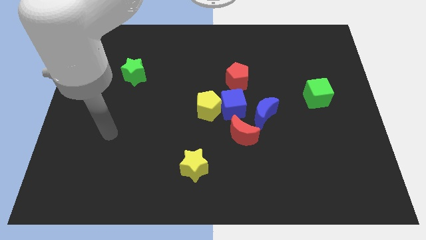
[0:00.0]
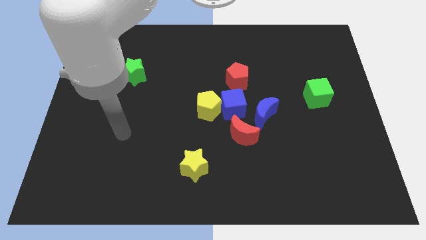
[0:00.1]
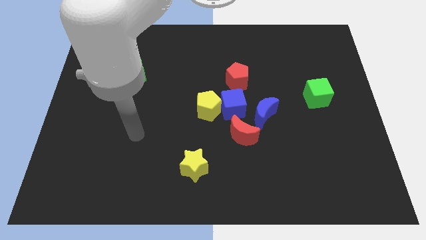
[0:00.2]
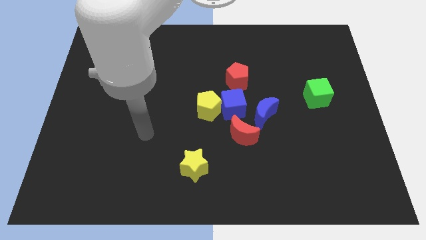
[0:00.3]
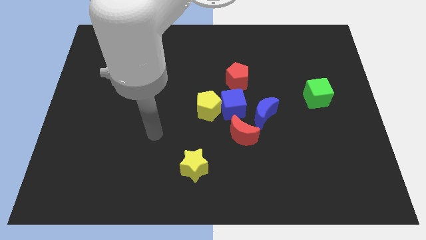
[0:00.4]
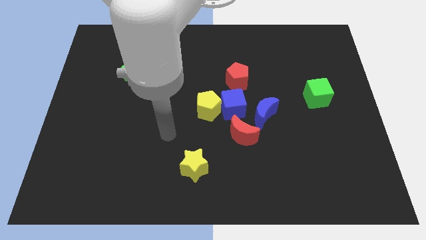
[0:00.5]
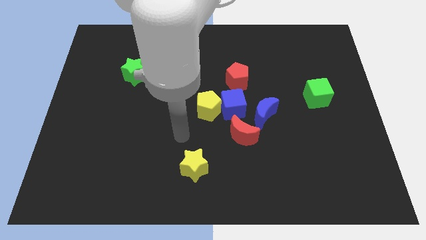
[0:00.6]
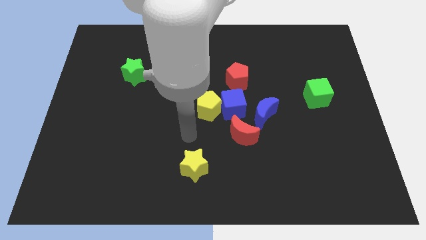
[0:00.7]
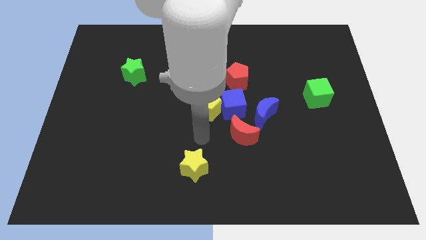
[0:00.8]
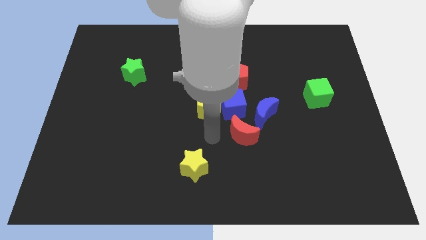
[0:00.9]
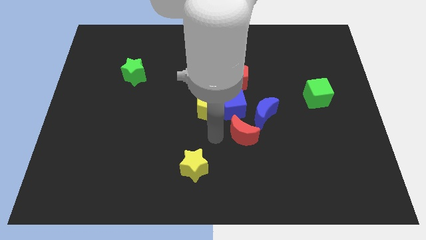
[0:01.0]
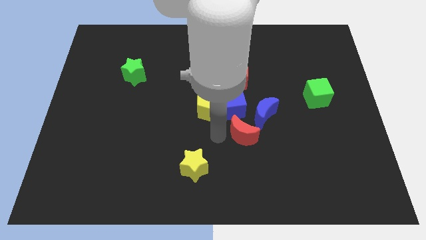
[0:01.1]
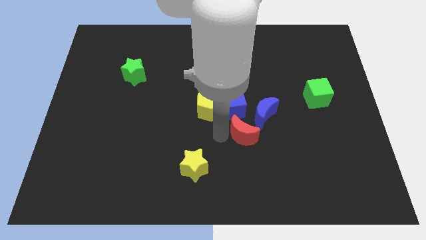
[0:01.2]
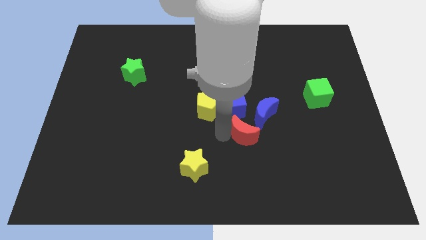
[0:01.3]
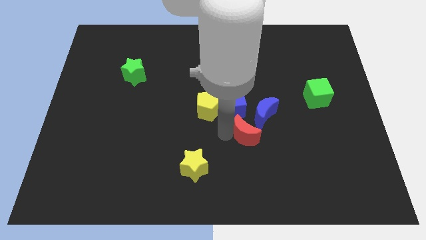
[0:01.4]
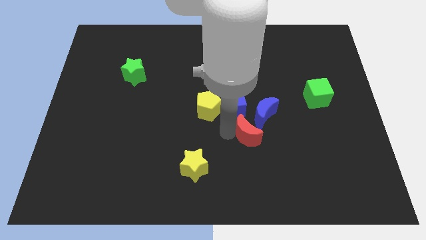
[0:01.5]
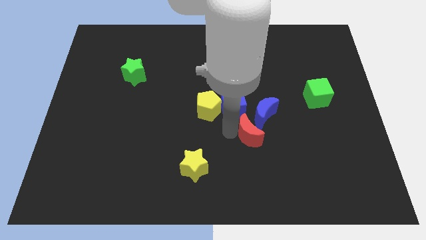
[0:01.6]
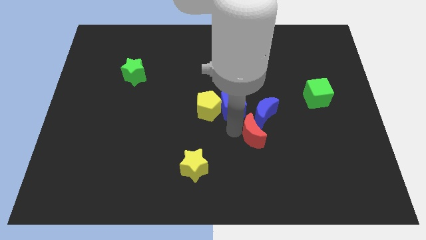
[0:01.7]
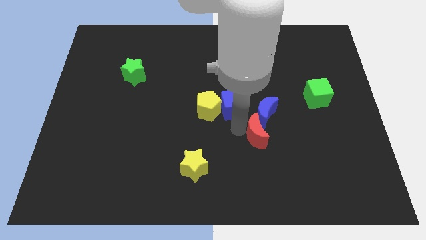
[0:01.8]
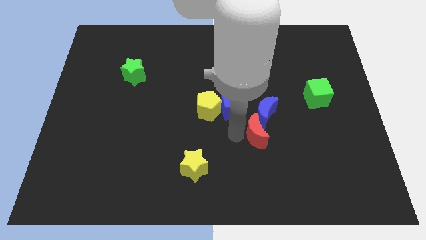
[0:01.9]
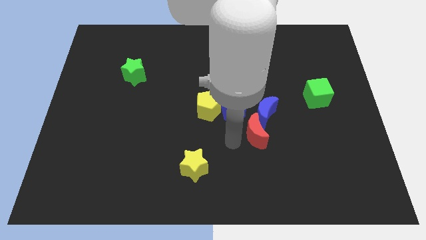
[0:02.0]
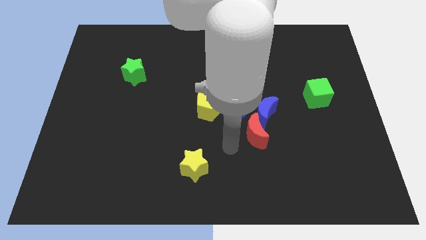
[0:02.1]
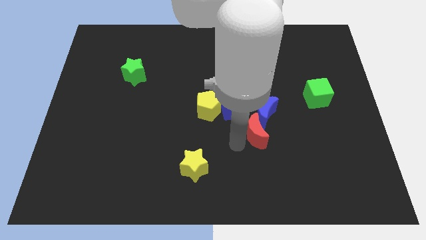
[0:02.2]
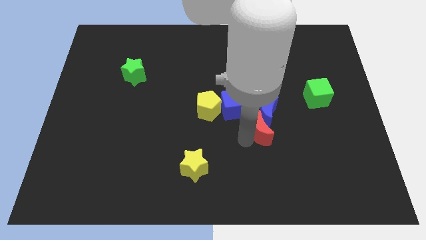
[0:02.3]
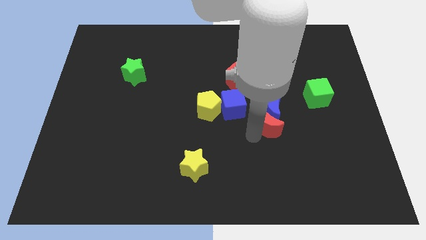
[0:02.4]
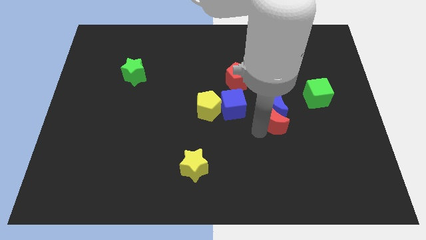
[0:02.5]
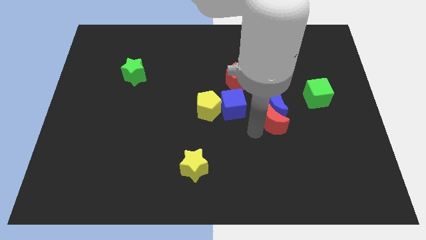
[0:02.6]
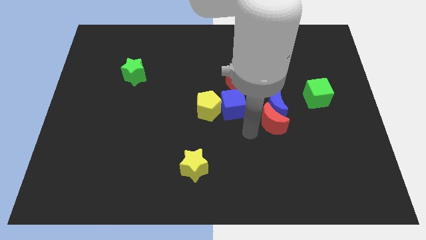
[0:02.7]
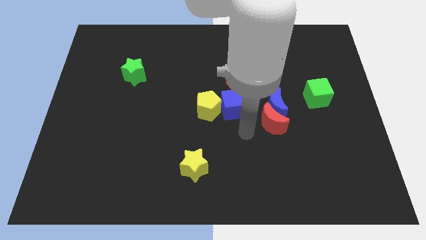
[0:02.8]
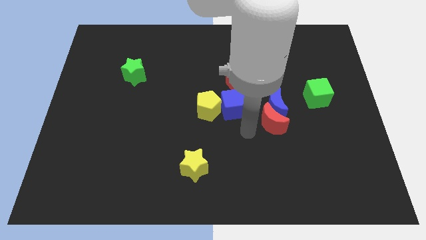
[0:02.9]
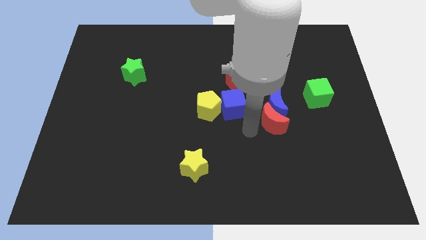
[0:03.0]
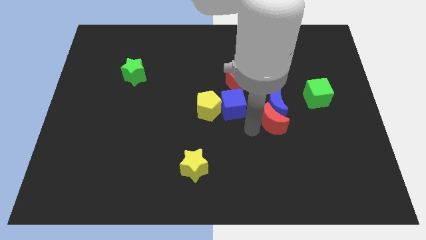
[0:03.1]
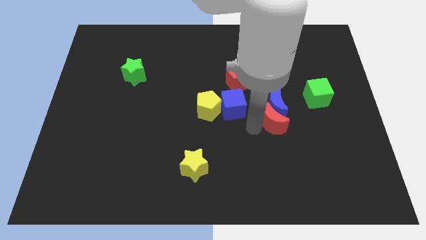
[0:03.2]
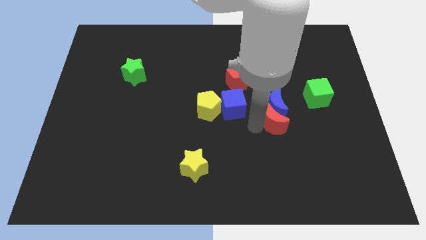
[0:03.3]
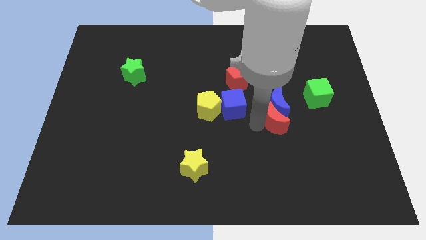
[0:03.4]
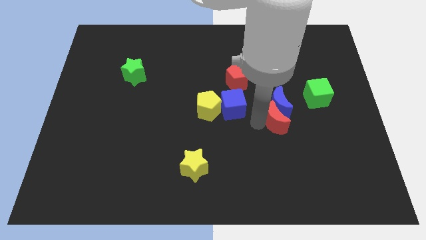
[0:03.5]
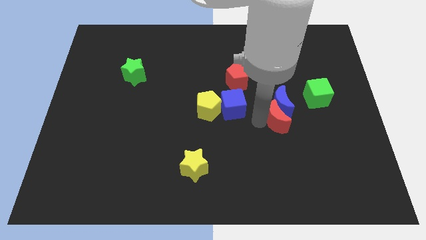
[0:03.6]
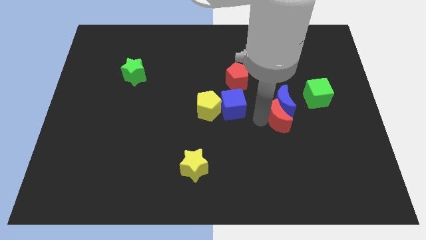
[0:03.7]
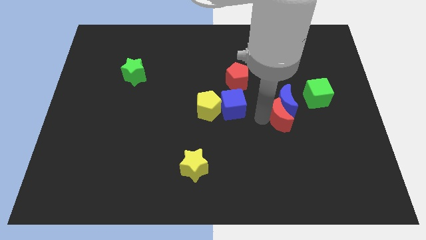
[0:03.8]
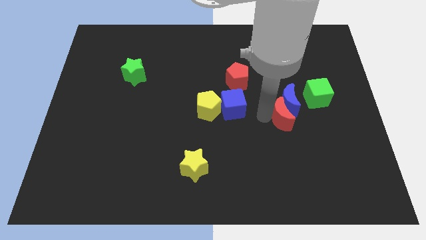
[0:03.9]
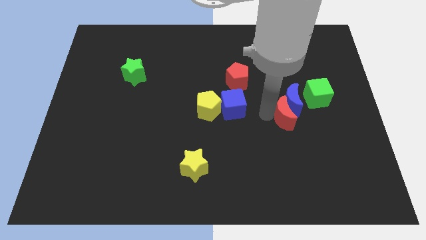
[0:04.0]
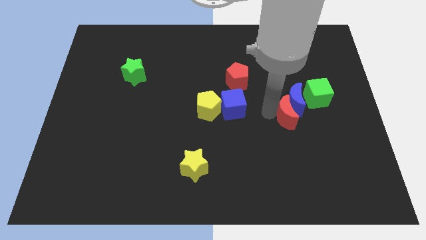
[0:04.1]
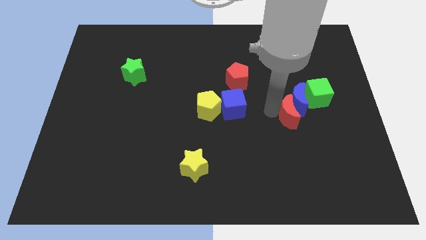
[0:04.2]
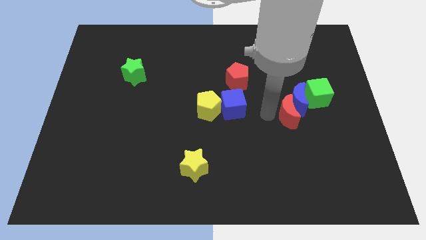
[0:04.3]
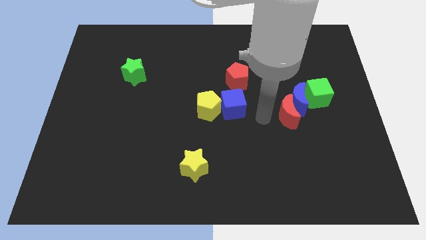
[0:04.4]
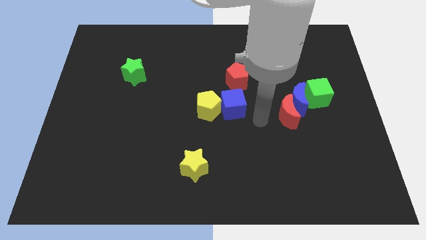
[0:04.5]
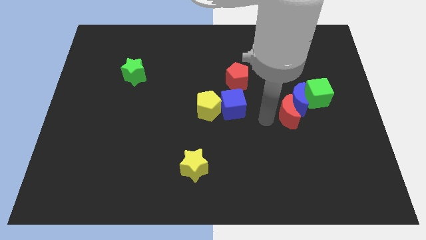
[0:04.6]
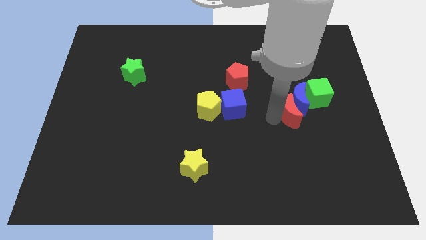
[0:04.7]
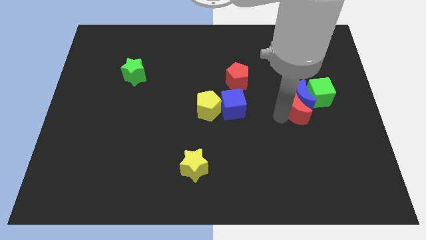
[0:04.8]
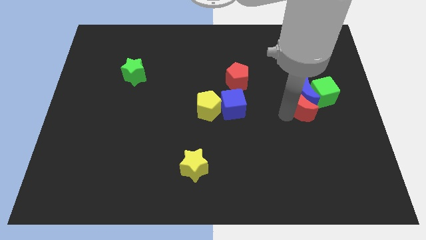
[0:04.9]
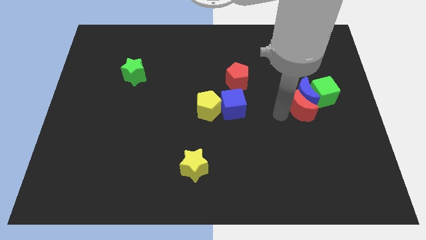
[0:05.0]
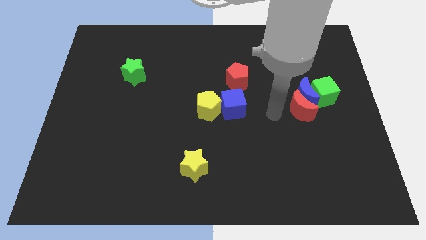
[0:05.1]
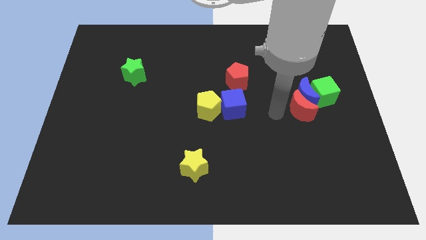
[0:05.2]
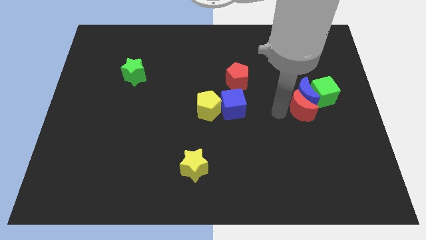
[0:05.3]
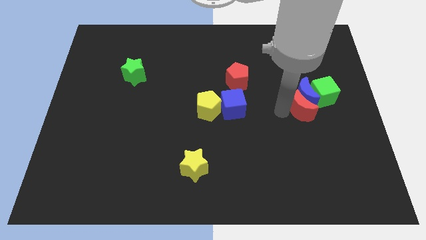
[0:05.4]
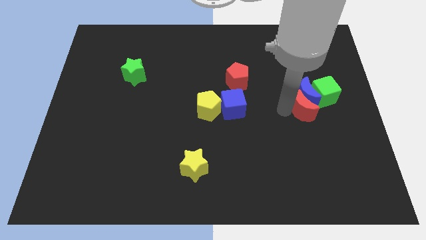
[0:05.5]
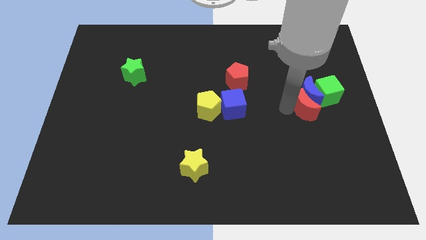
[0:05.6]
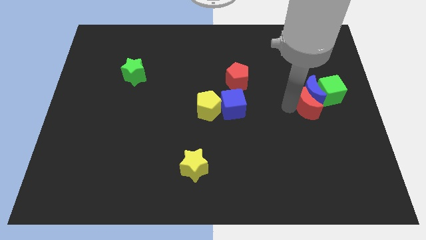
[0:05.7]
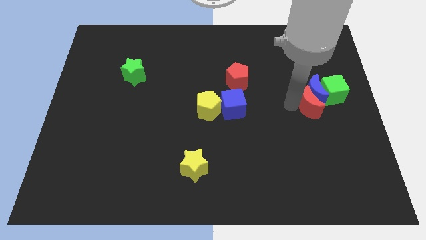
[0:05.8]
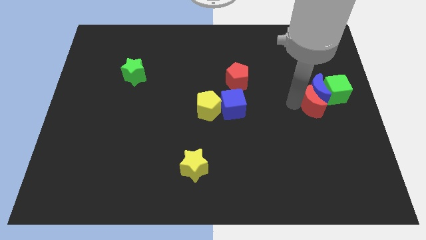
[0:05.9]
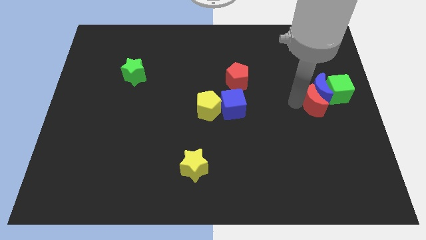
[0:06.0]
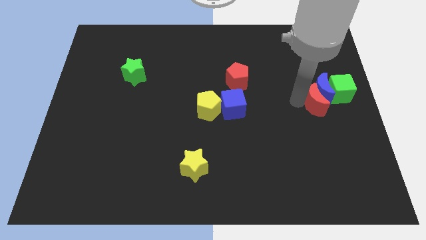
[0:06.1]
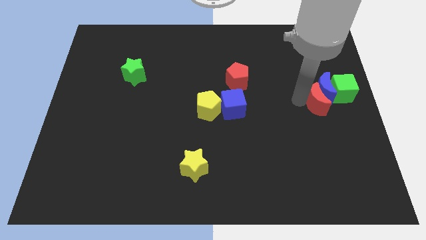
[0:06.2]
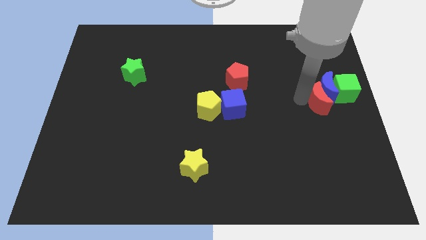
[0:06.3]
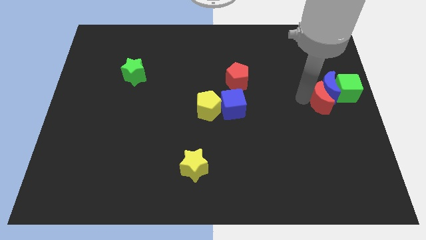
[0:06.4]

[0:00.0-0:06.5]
put the red moon to the right side of the board
